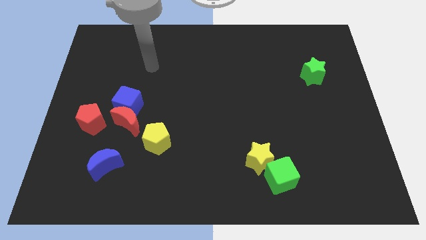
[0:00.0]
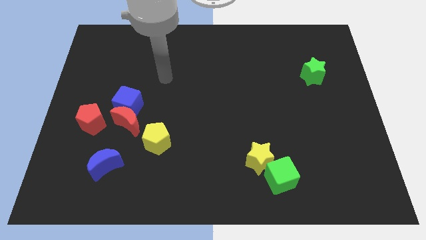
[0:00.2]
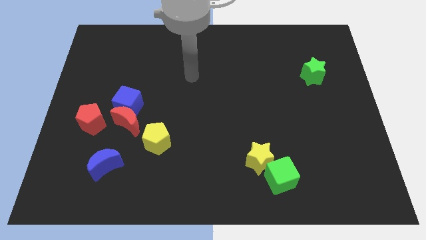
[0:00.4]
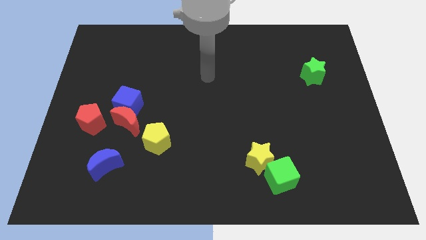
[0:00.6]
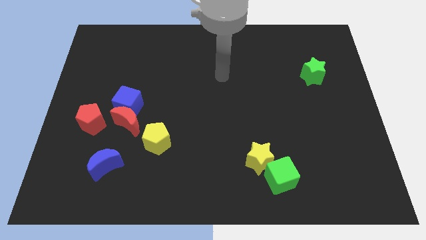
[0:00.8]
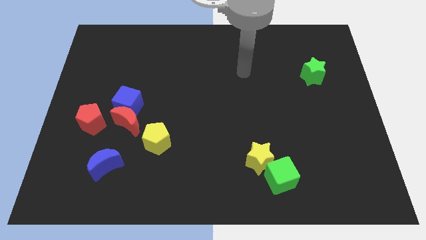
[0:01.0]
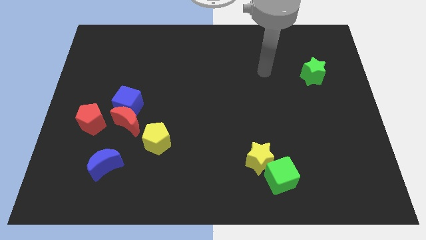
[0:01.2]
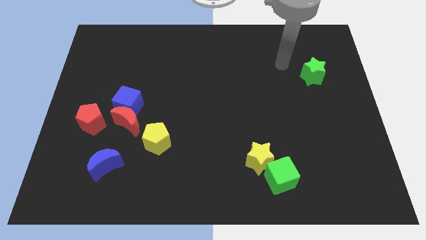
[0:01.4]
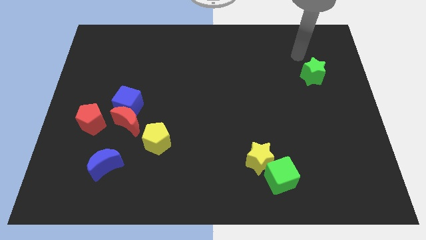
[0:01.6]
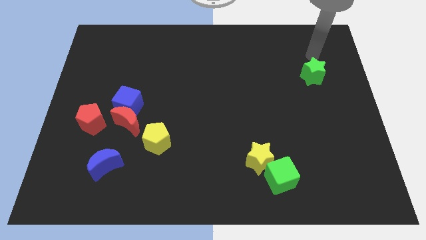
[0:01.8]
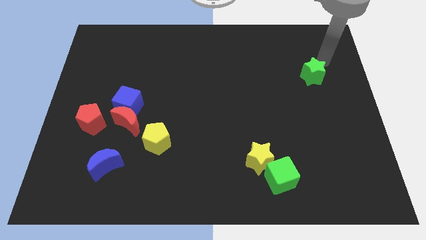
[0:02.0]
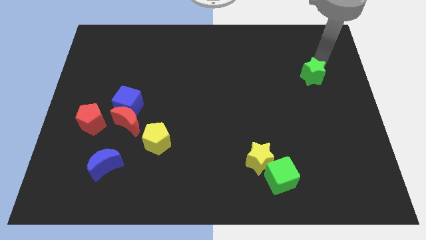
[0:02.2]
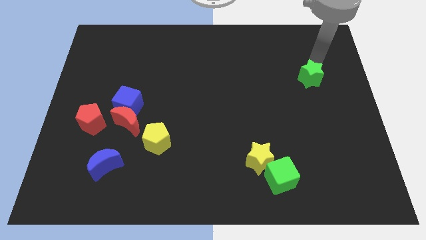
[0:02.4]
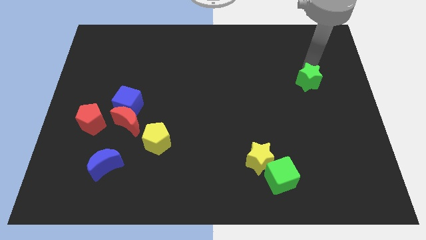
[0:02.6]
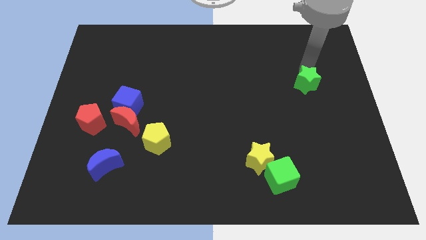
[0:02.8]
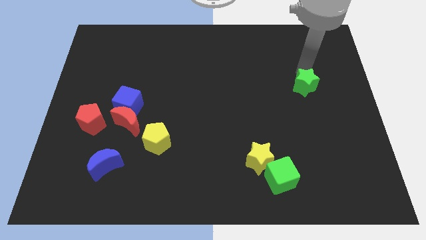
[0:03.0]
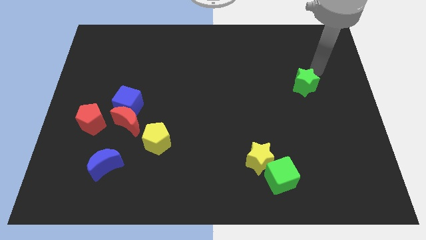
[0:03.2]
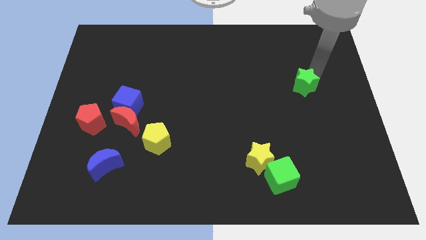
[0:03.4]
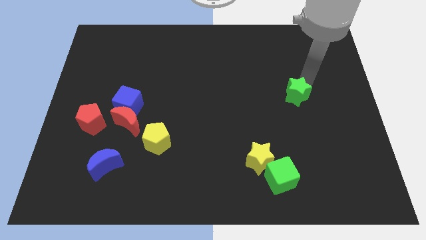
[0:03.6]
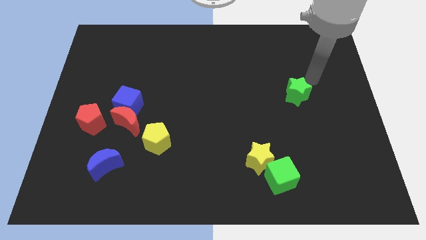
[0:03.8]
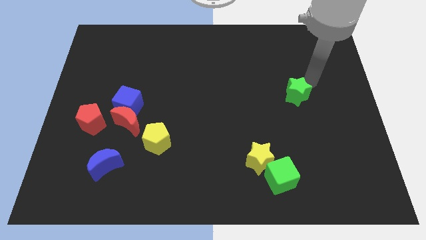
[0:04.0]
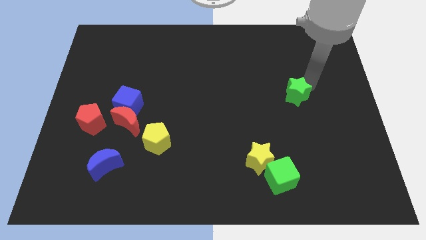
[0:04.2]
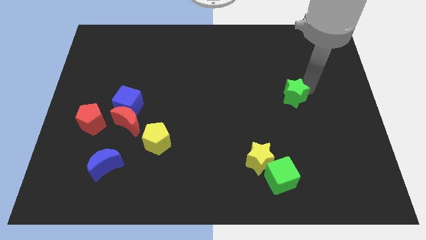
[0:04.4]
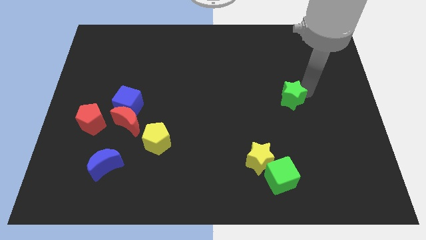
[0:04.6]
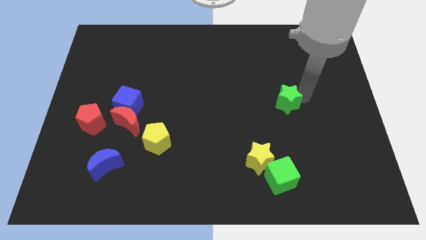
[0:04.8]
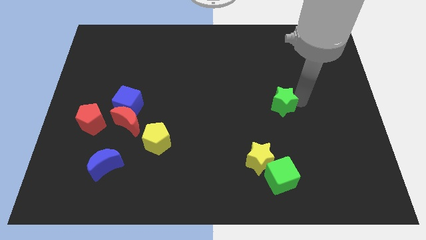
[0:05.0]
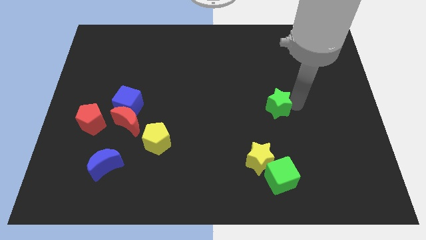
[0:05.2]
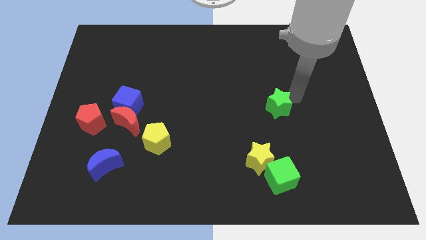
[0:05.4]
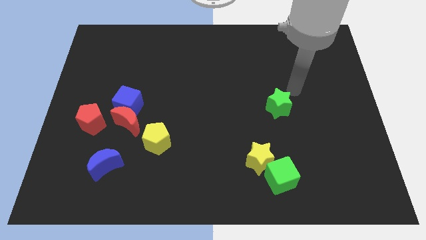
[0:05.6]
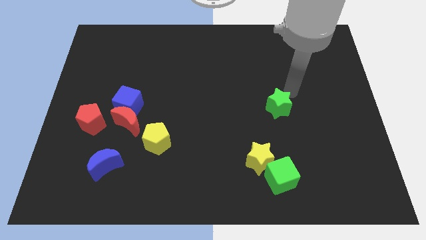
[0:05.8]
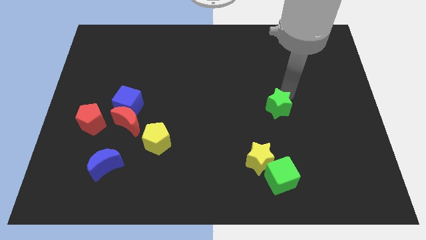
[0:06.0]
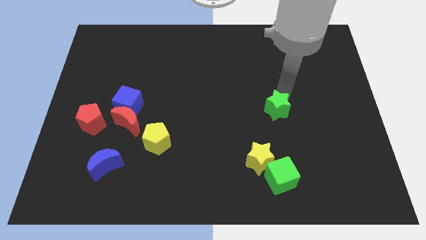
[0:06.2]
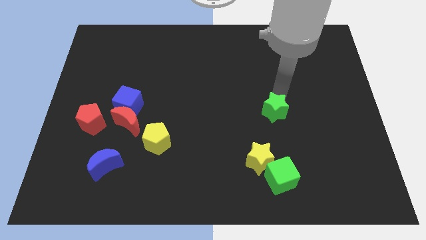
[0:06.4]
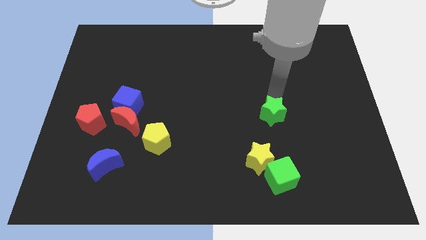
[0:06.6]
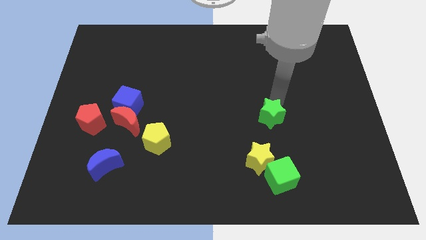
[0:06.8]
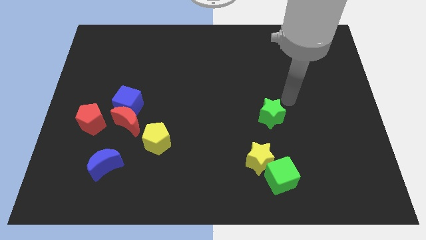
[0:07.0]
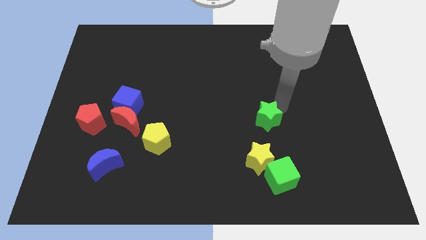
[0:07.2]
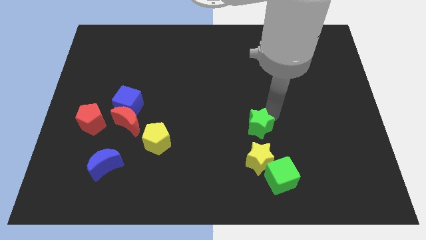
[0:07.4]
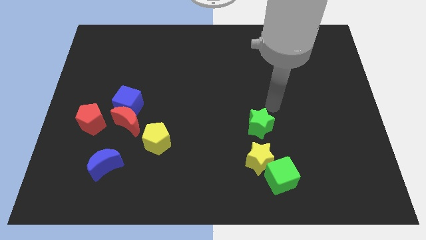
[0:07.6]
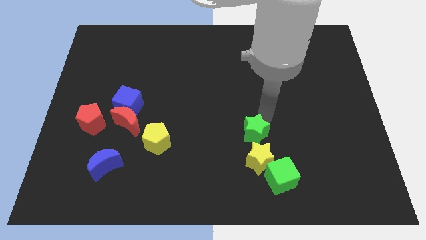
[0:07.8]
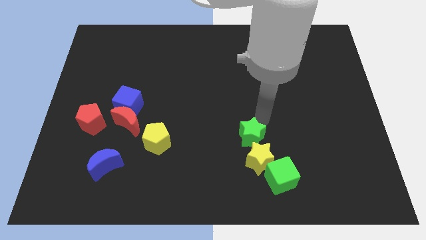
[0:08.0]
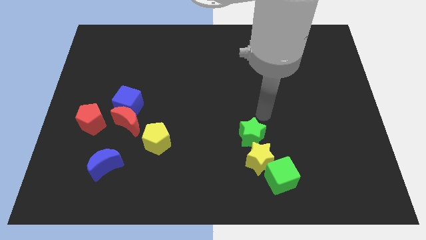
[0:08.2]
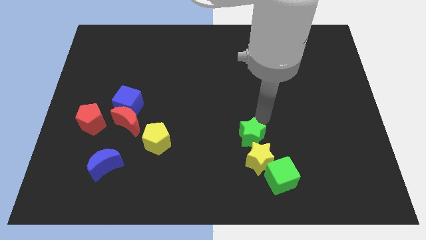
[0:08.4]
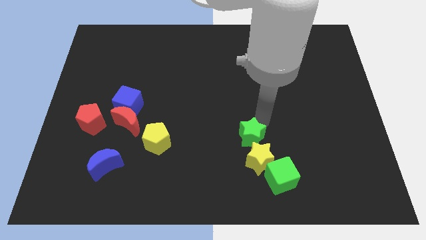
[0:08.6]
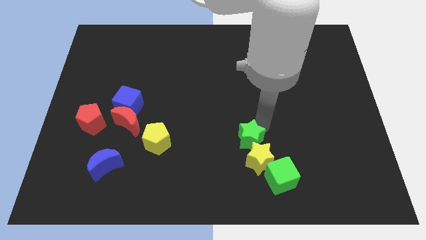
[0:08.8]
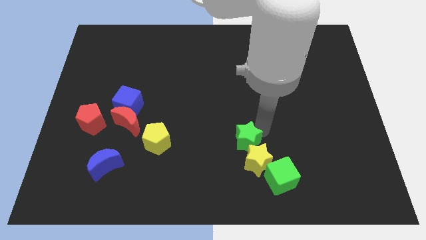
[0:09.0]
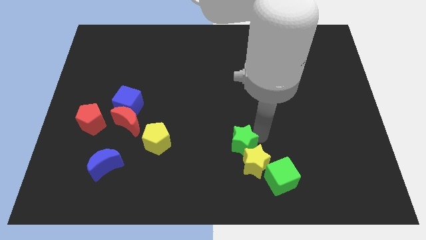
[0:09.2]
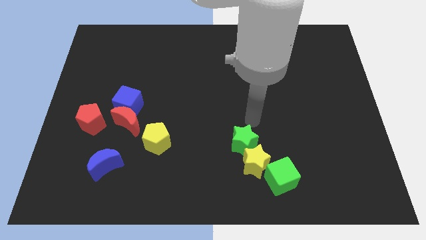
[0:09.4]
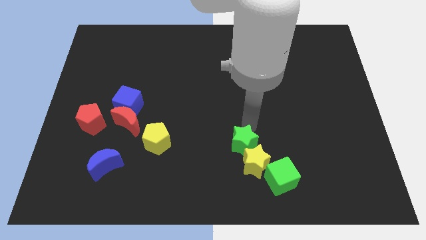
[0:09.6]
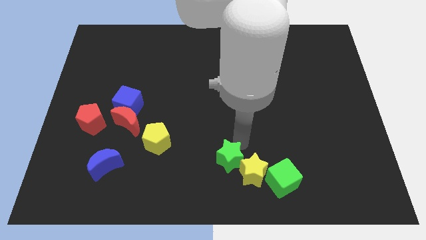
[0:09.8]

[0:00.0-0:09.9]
push the green star to the bottom side

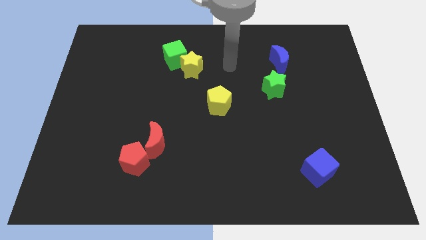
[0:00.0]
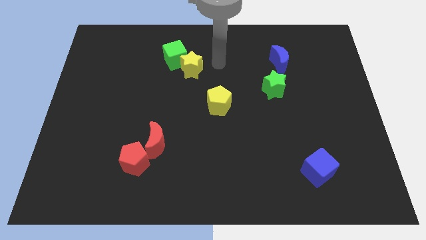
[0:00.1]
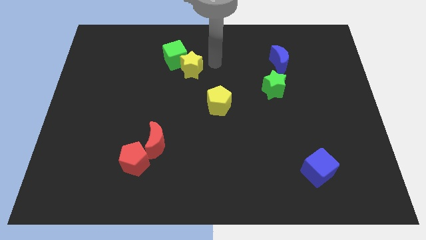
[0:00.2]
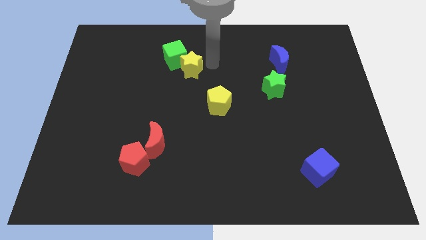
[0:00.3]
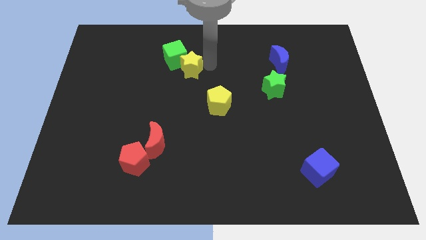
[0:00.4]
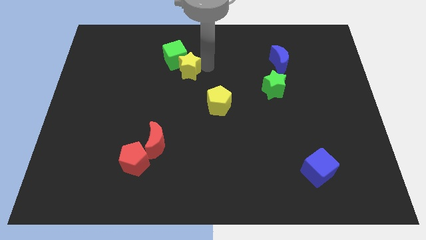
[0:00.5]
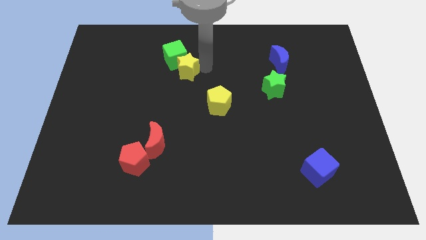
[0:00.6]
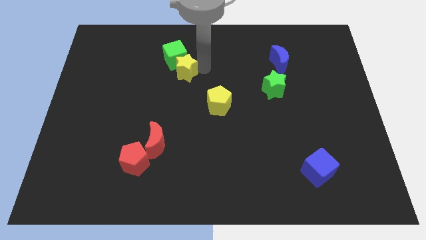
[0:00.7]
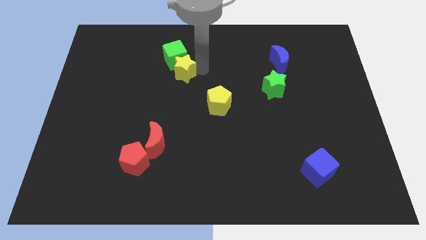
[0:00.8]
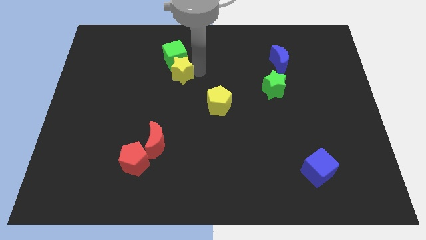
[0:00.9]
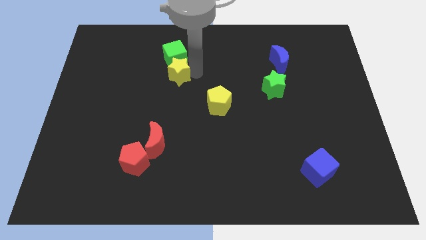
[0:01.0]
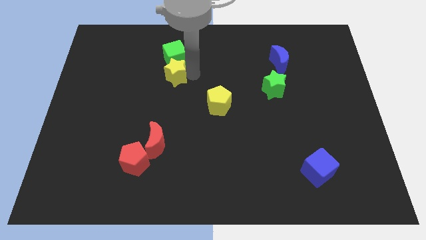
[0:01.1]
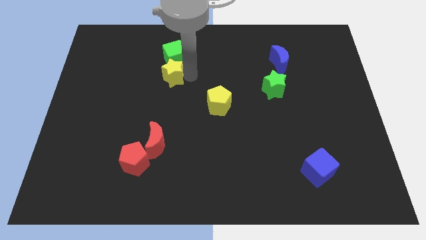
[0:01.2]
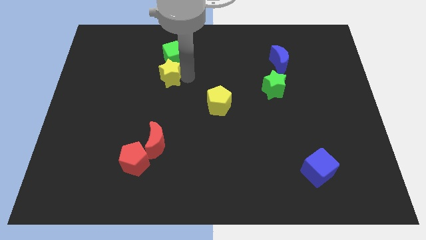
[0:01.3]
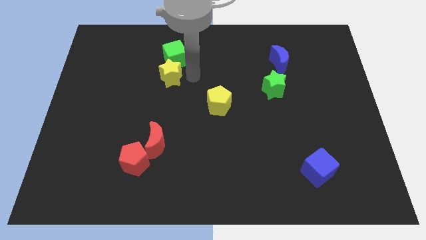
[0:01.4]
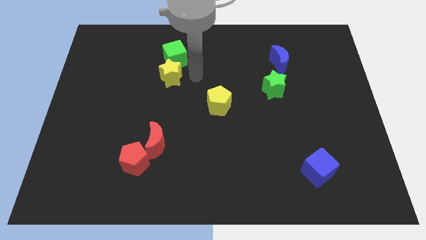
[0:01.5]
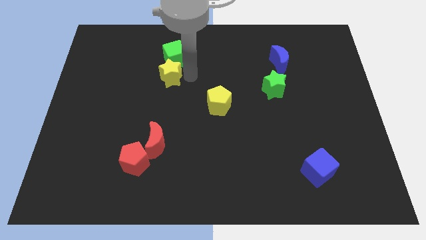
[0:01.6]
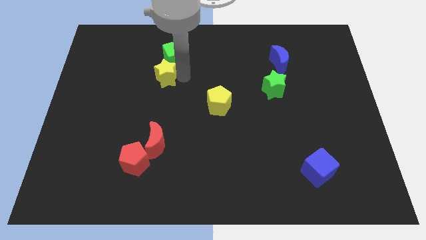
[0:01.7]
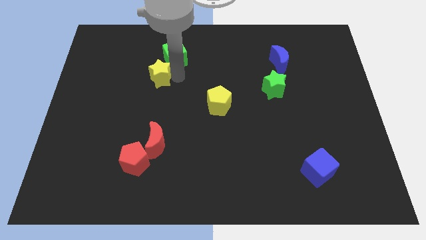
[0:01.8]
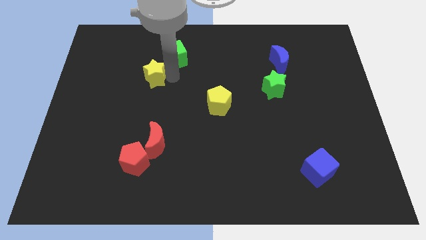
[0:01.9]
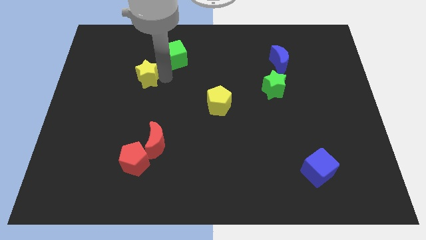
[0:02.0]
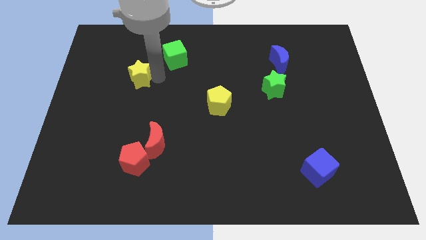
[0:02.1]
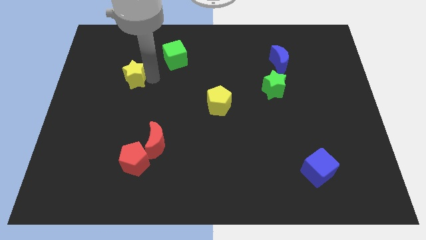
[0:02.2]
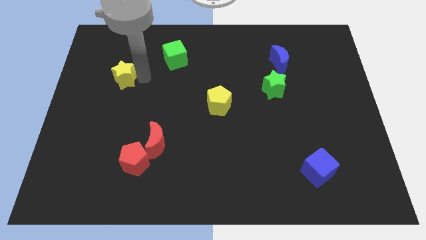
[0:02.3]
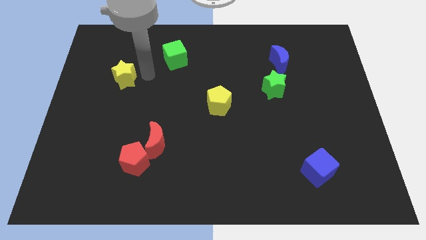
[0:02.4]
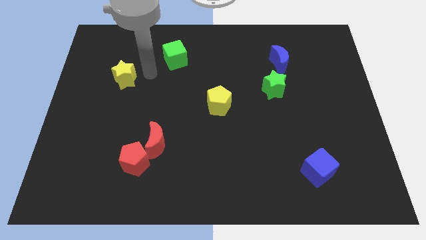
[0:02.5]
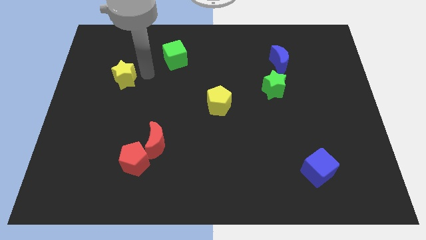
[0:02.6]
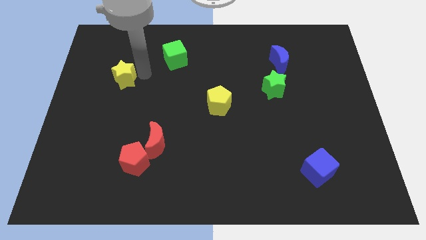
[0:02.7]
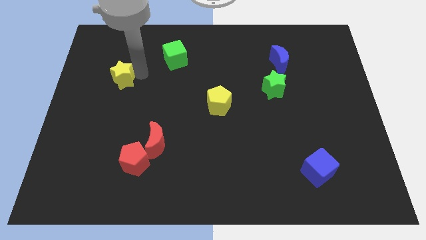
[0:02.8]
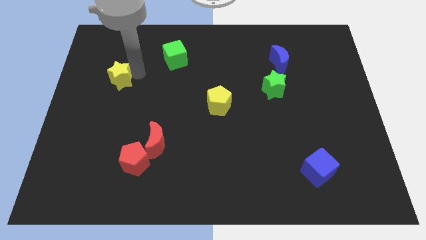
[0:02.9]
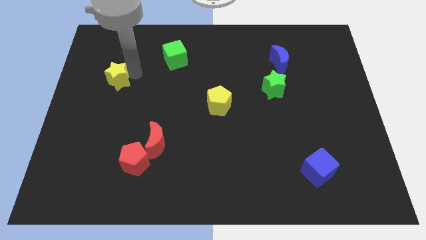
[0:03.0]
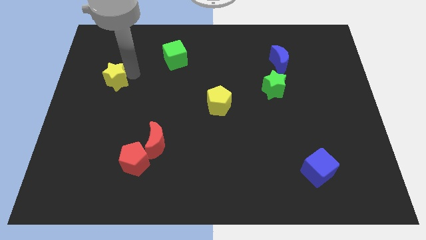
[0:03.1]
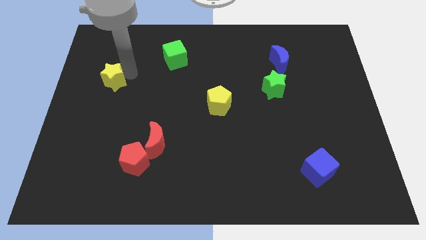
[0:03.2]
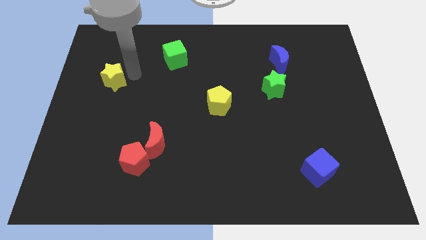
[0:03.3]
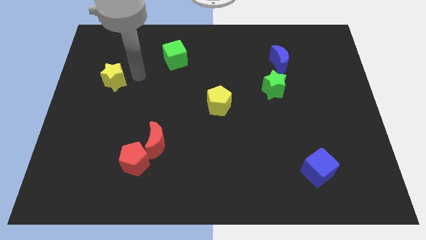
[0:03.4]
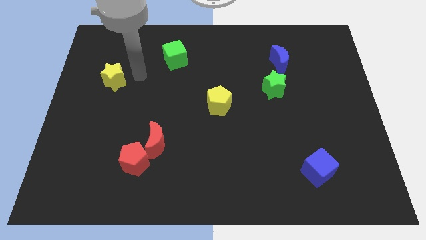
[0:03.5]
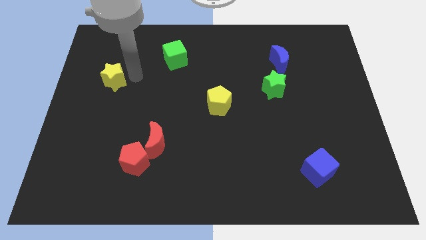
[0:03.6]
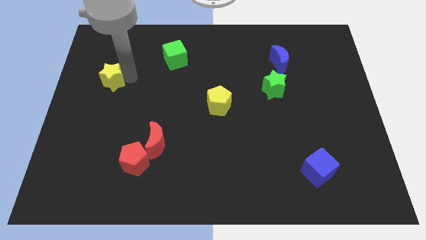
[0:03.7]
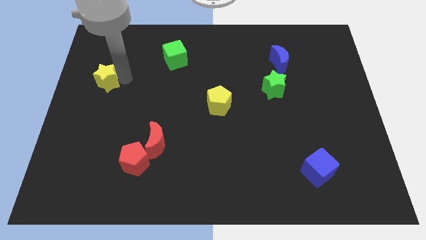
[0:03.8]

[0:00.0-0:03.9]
put the yellow star to the left side of the board
